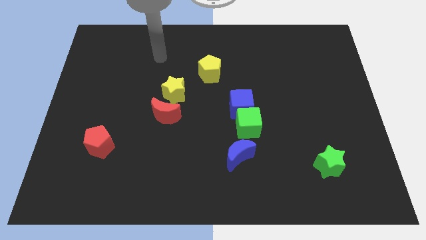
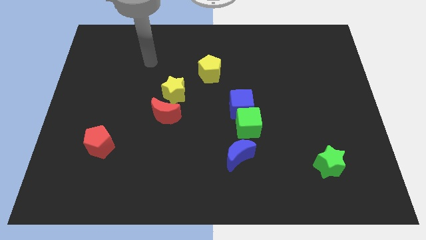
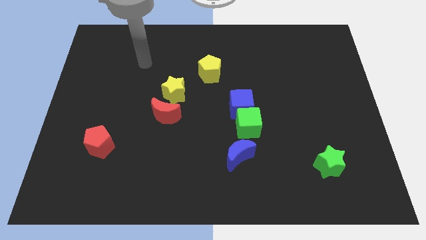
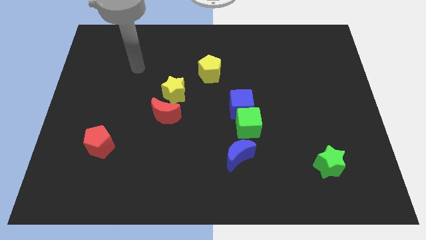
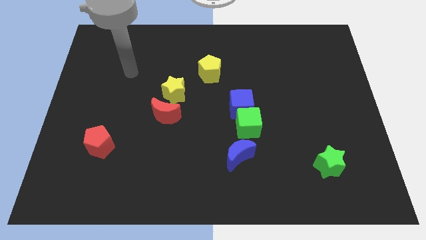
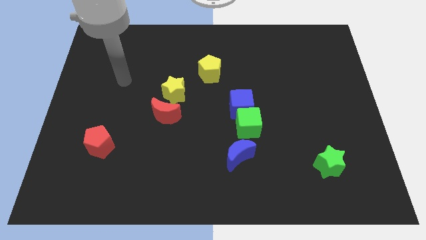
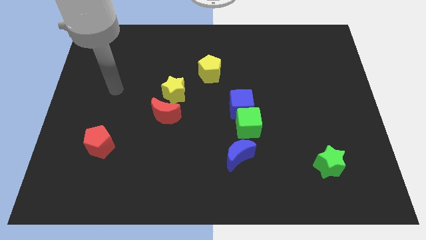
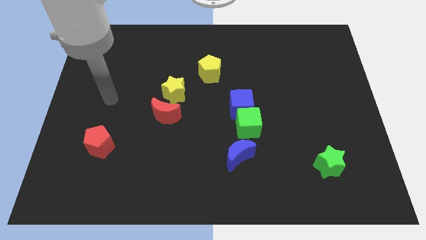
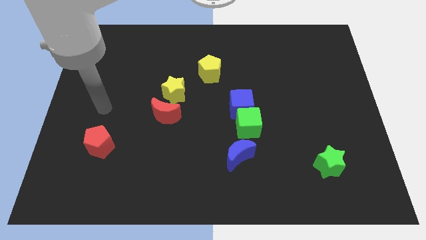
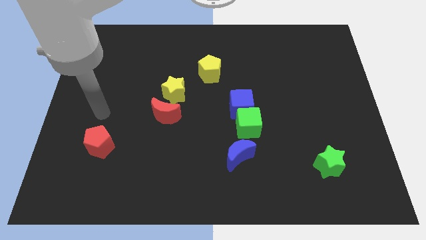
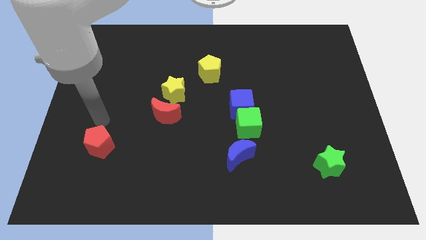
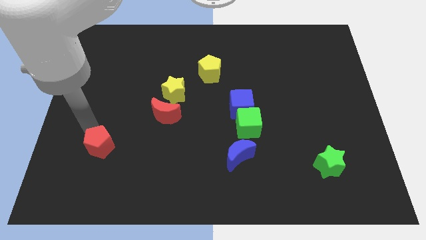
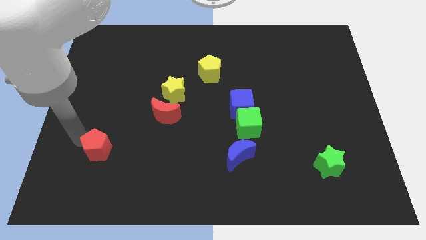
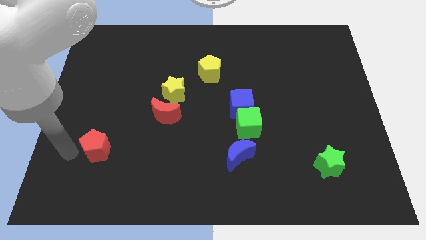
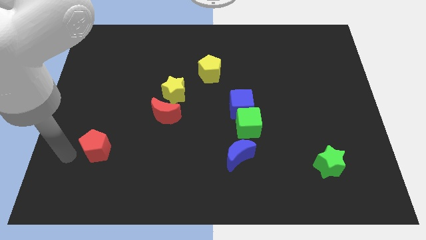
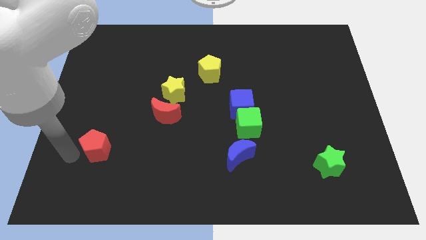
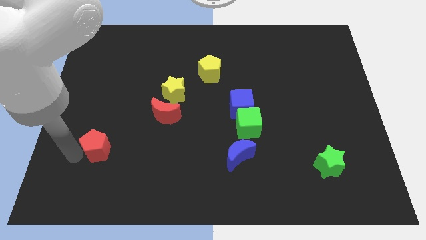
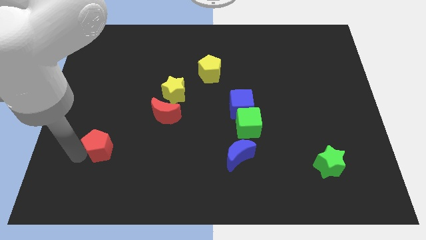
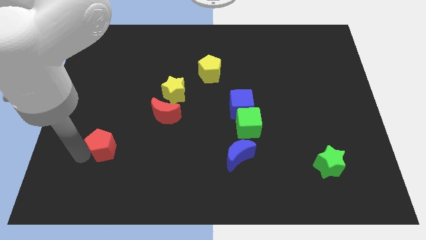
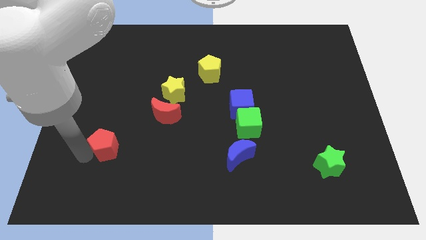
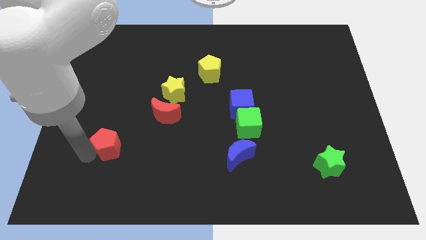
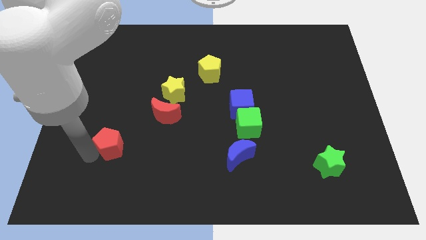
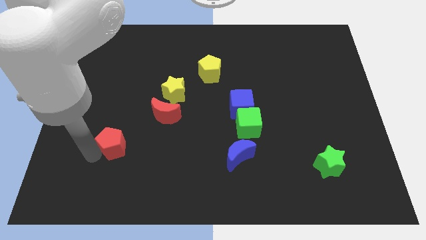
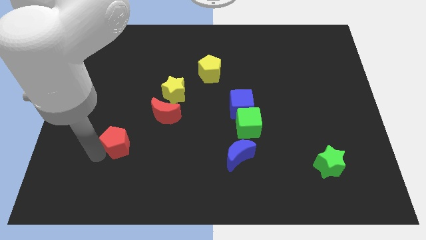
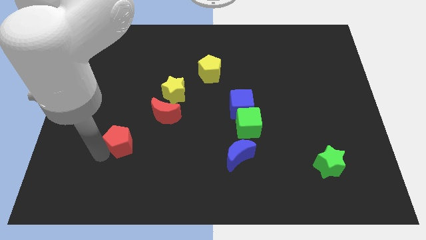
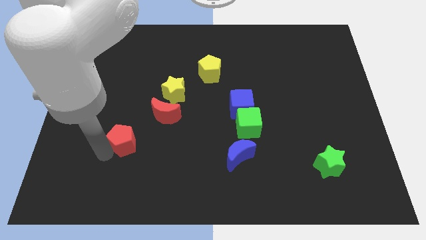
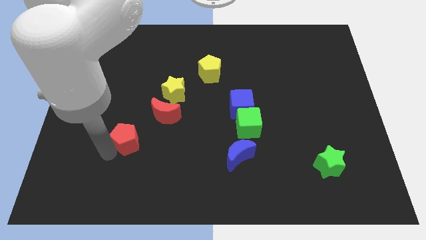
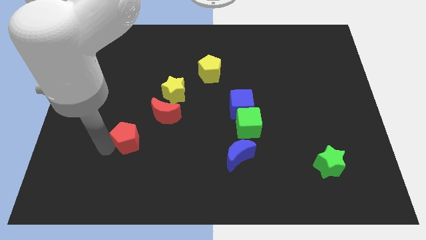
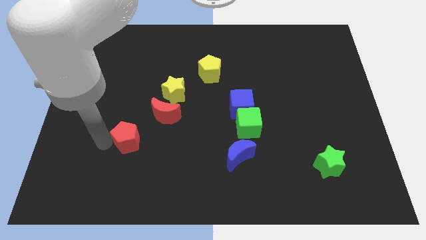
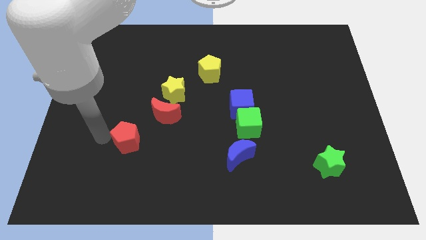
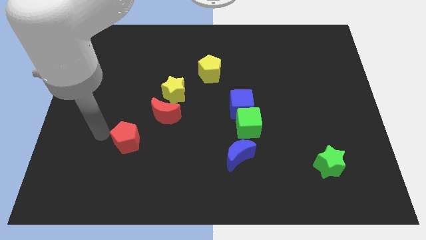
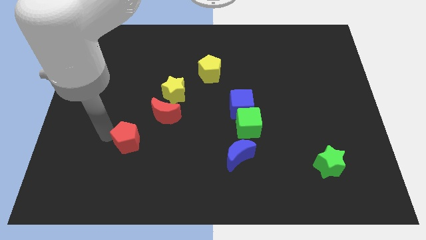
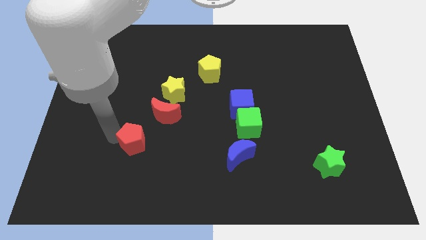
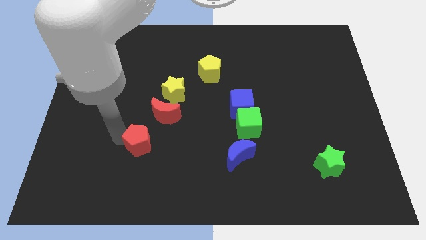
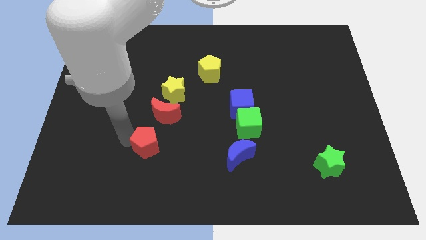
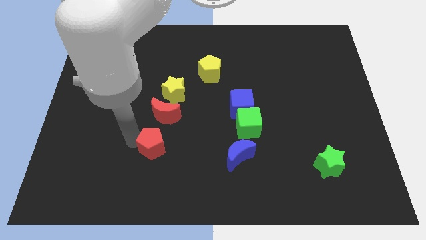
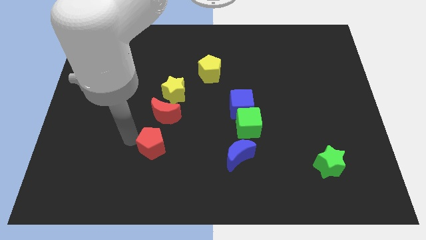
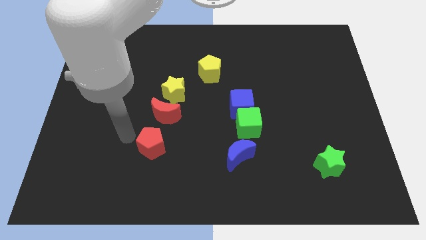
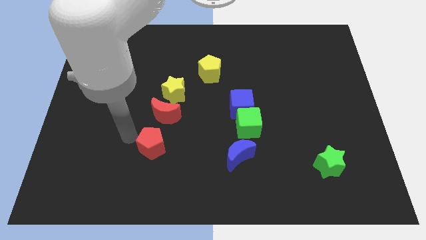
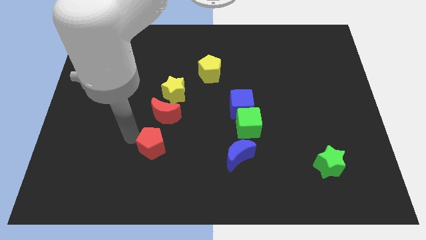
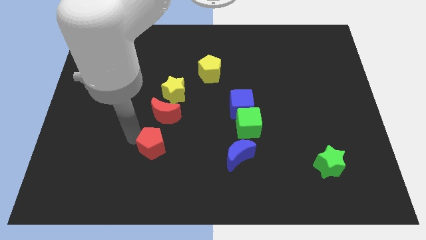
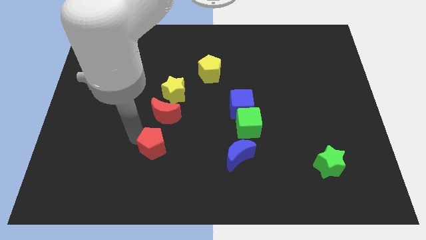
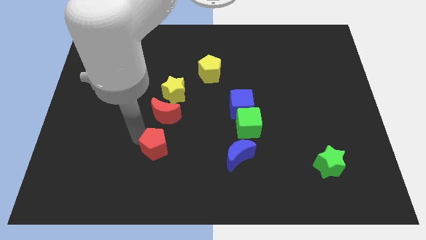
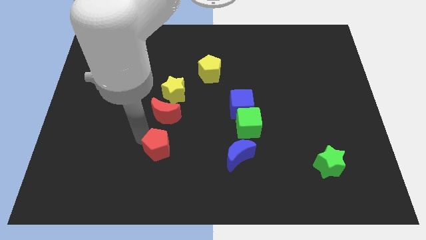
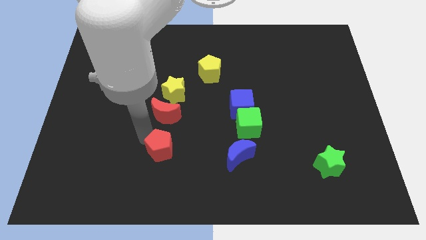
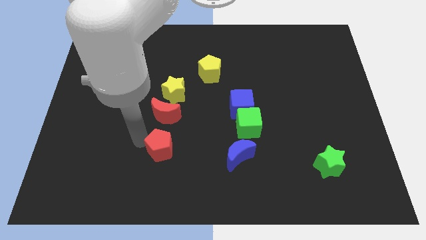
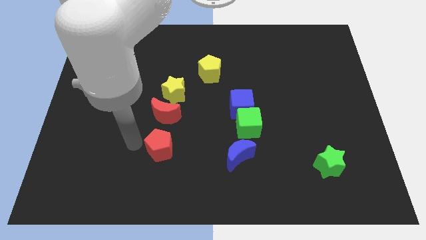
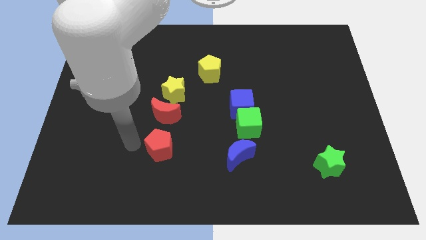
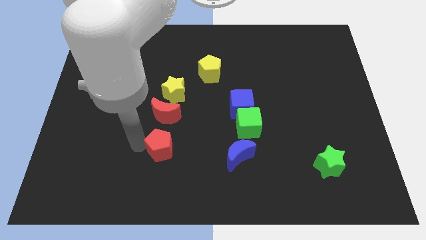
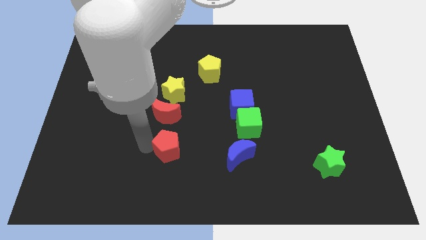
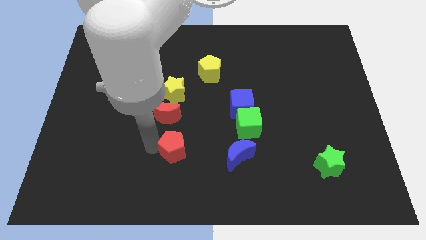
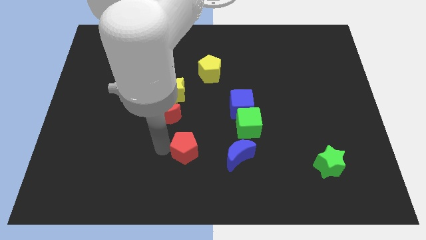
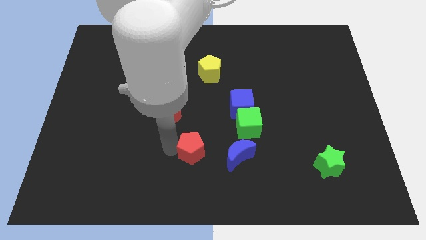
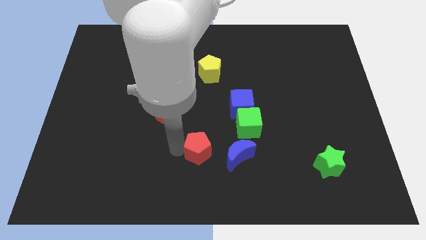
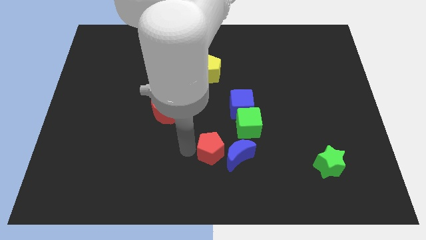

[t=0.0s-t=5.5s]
move the red pentagon towards the blue moon

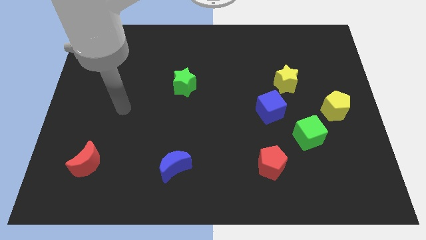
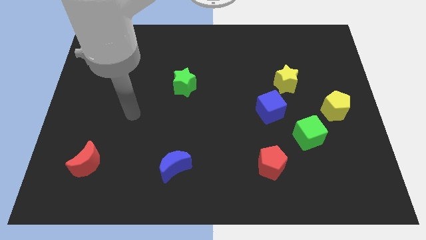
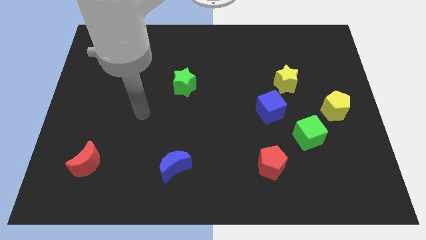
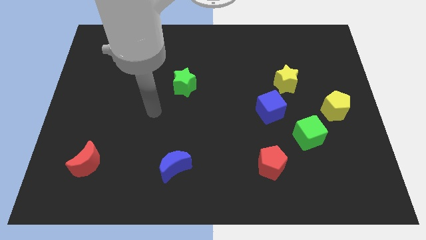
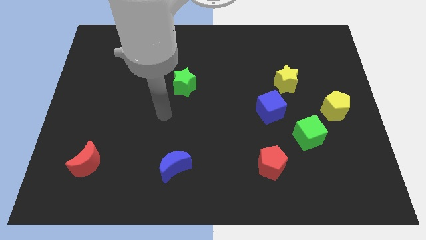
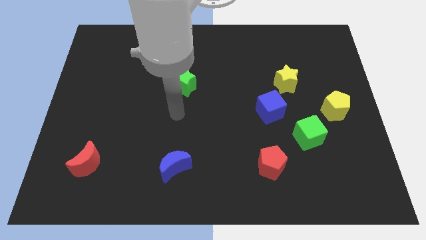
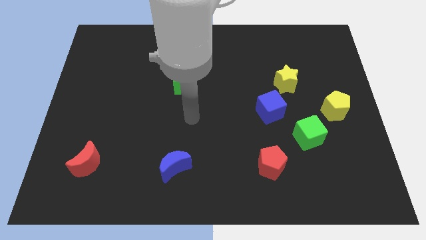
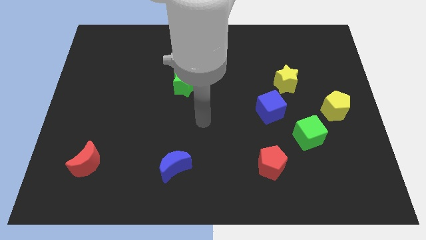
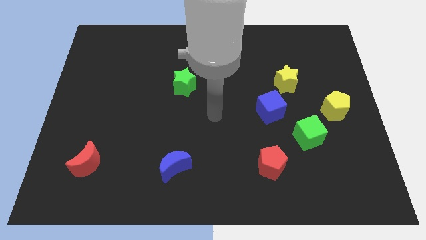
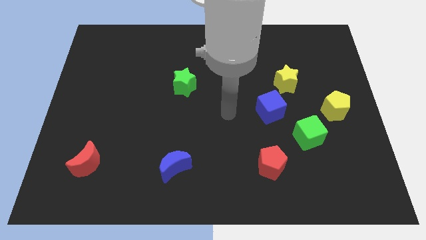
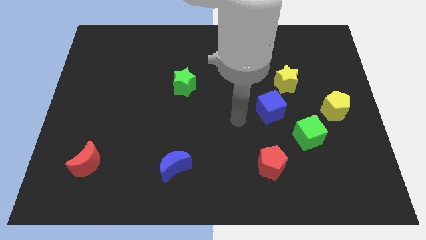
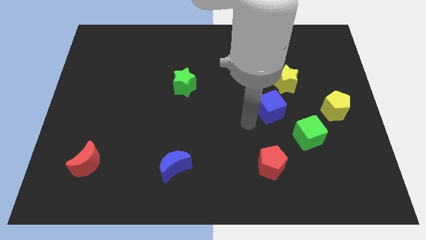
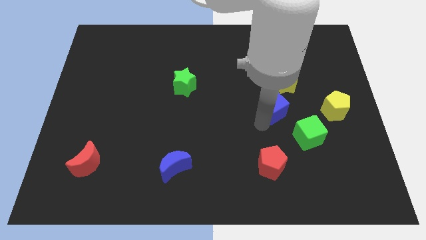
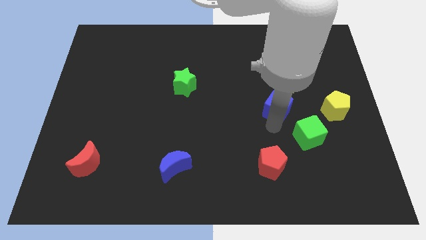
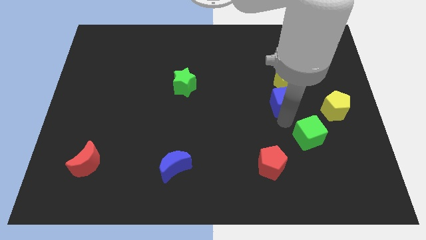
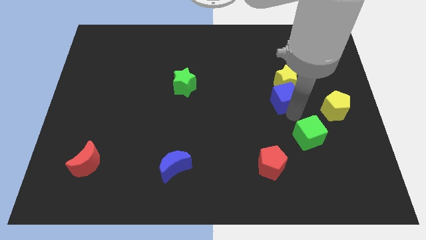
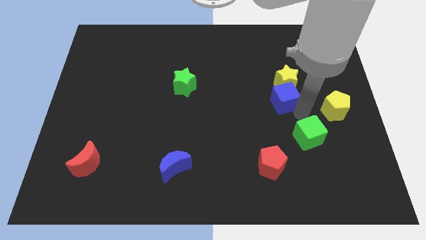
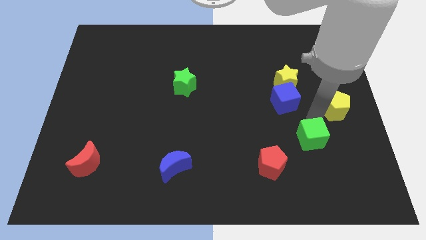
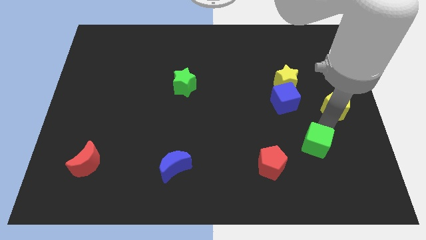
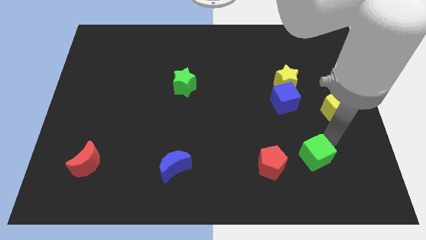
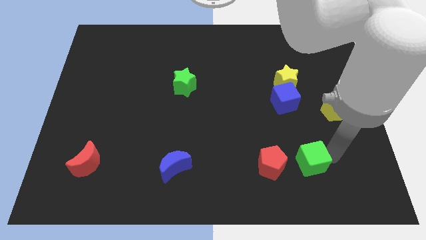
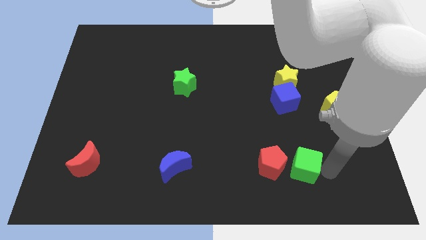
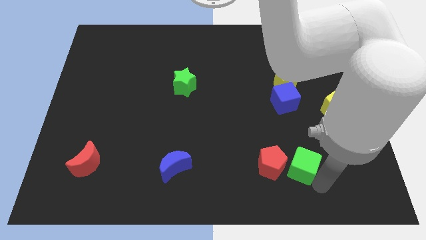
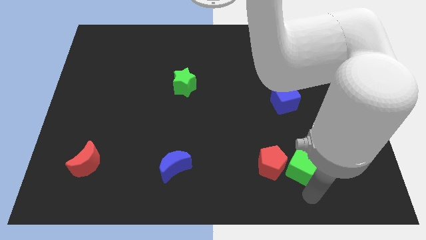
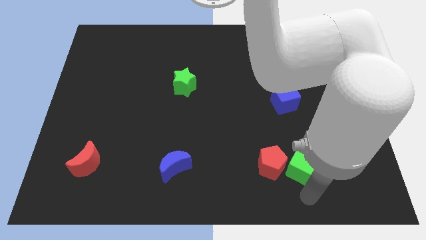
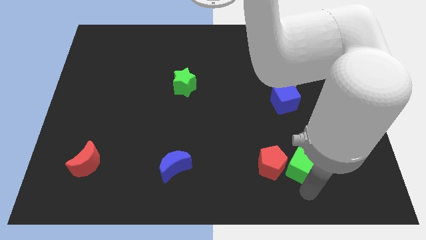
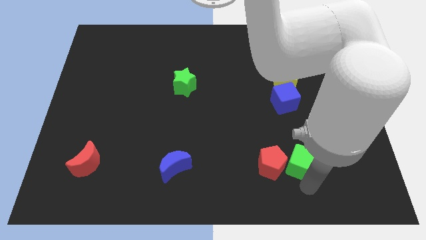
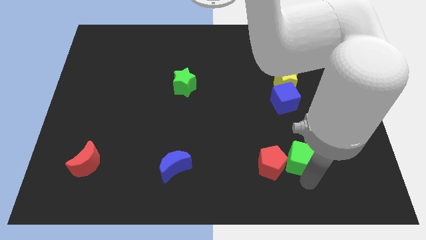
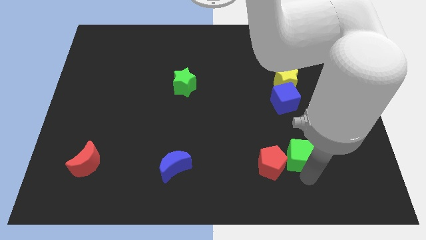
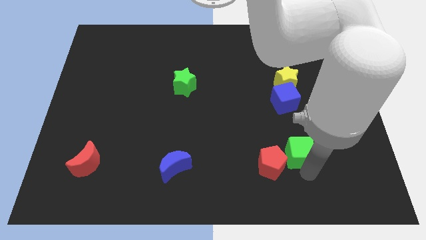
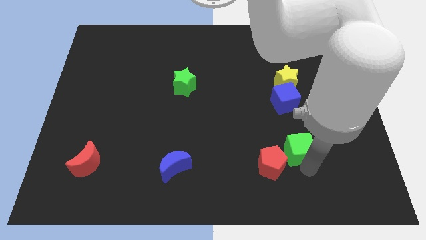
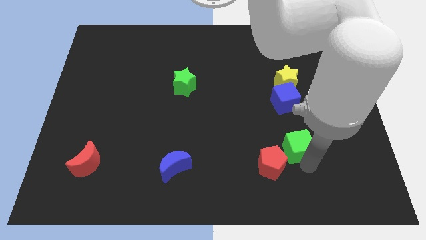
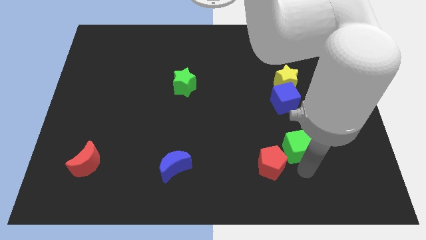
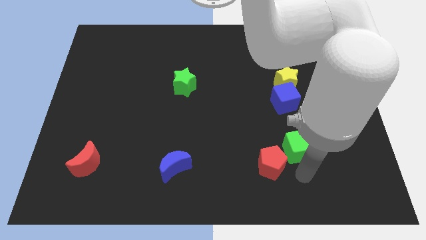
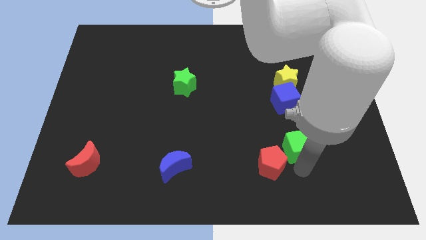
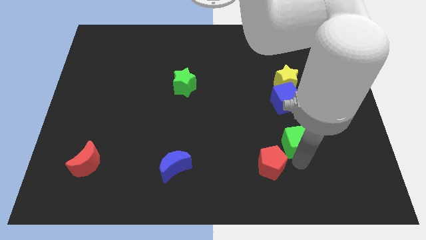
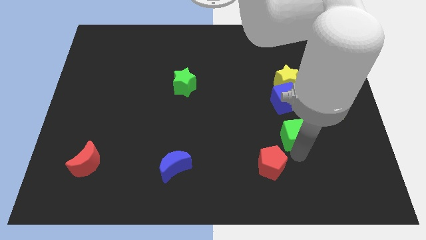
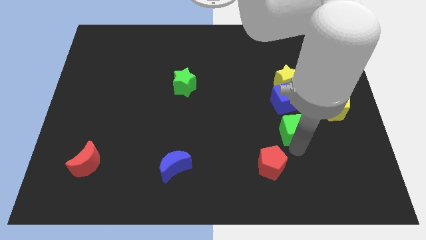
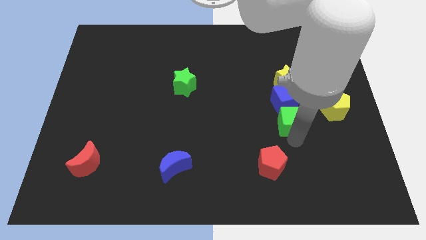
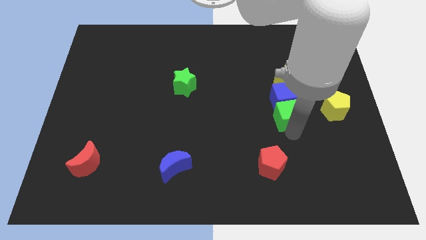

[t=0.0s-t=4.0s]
put the green cube next to the blue cube
